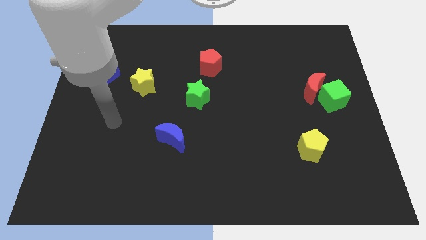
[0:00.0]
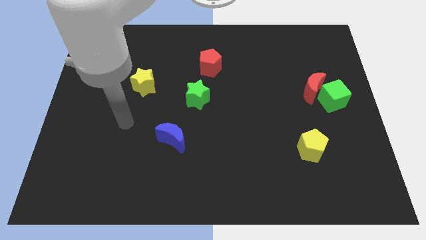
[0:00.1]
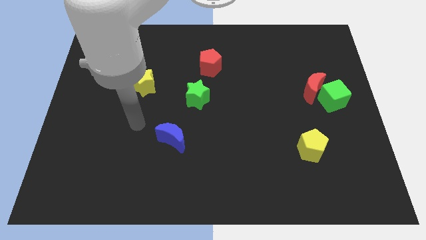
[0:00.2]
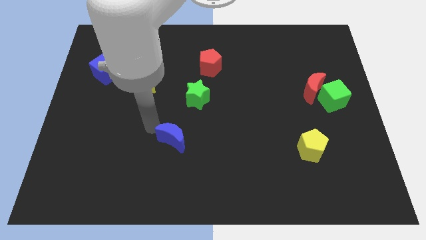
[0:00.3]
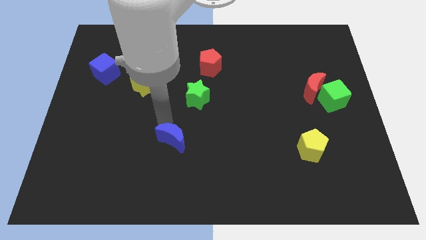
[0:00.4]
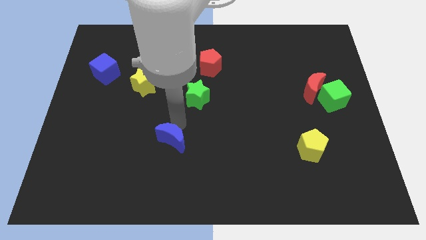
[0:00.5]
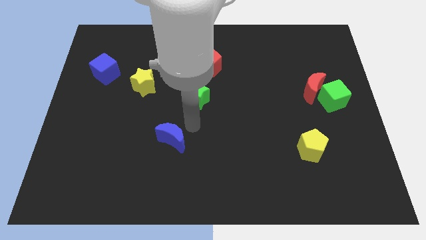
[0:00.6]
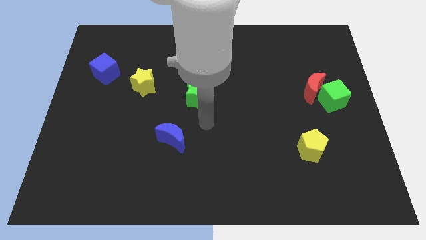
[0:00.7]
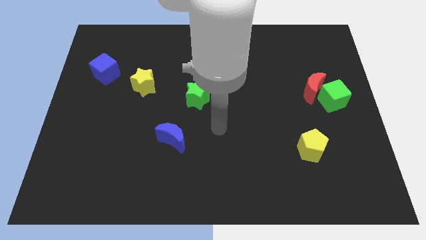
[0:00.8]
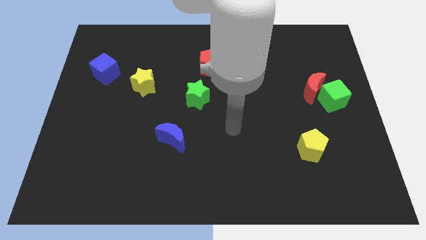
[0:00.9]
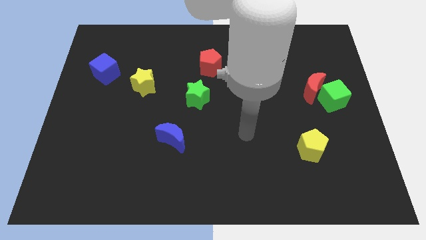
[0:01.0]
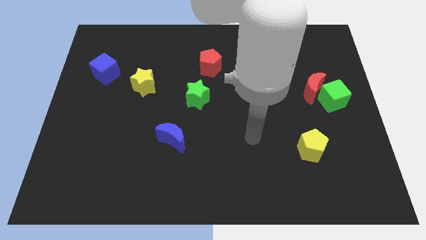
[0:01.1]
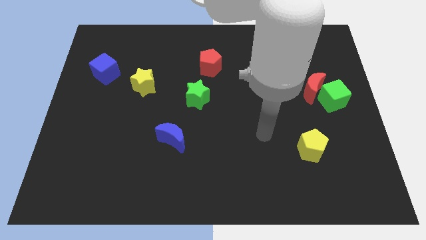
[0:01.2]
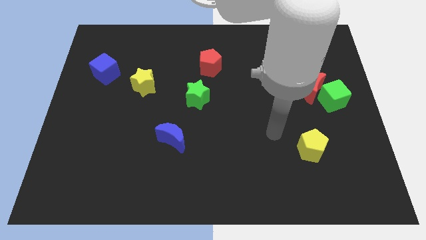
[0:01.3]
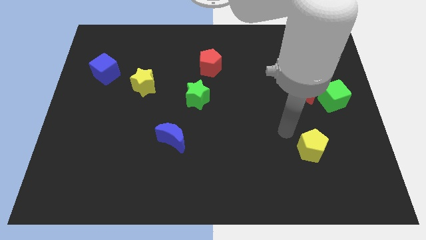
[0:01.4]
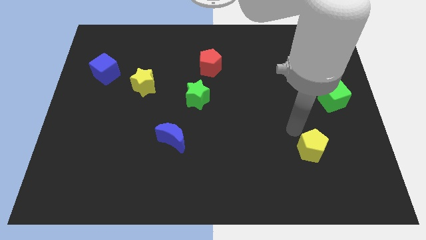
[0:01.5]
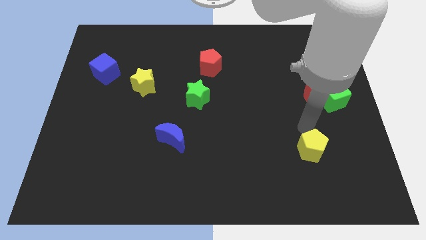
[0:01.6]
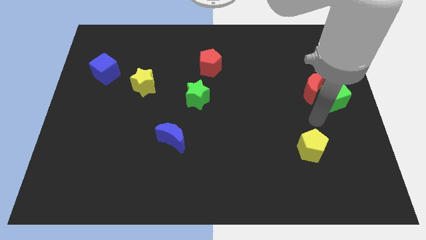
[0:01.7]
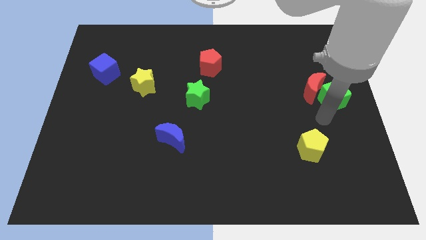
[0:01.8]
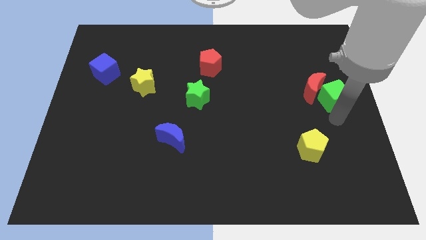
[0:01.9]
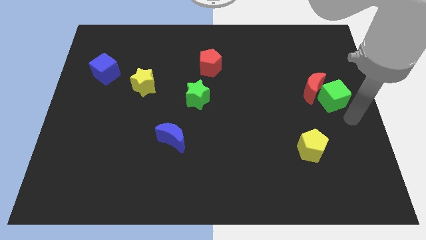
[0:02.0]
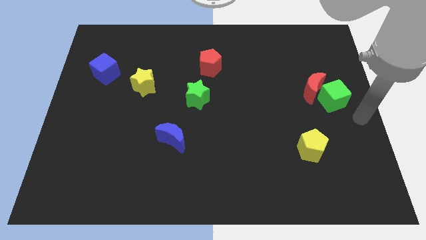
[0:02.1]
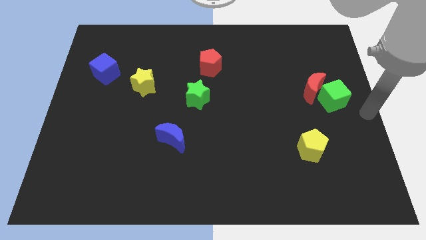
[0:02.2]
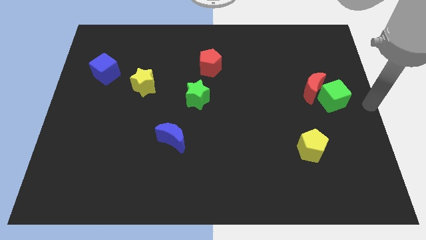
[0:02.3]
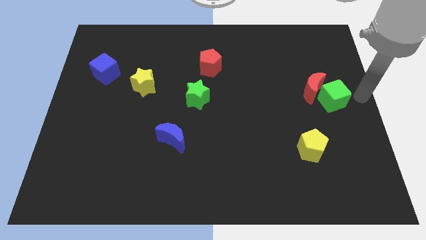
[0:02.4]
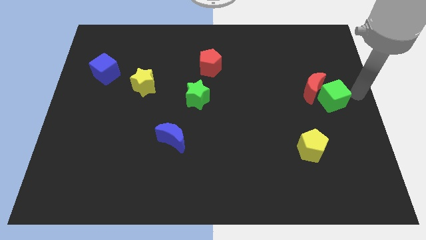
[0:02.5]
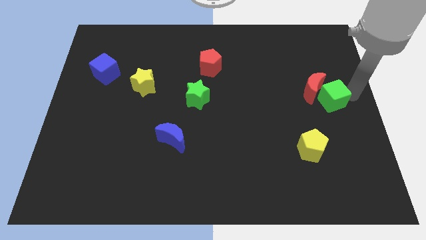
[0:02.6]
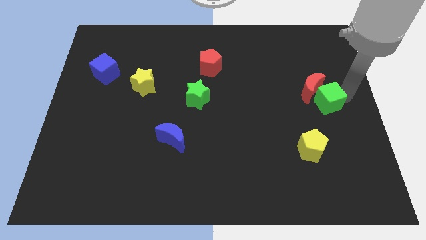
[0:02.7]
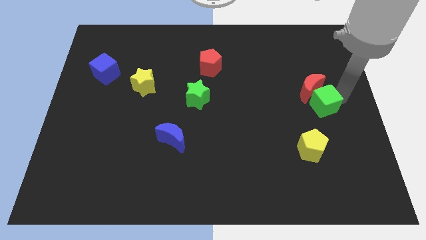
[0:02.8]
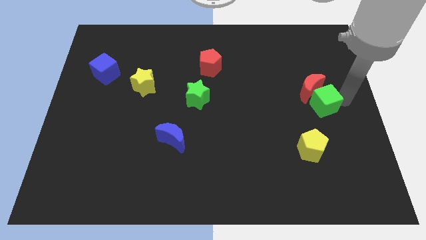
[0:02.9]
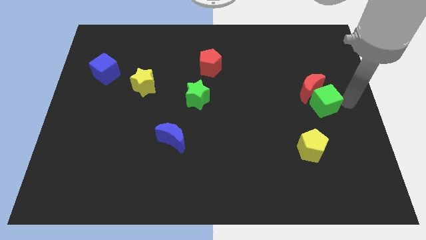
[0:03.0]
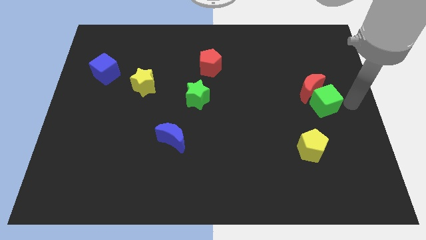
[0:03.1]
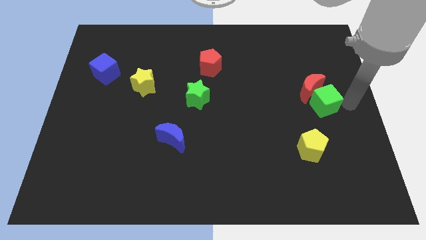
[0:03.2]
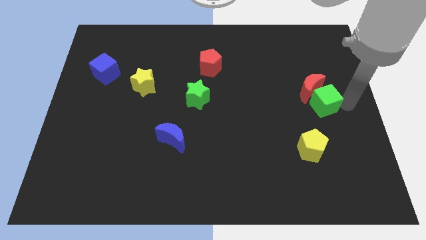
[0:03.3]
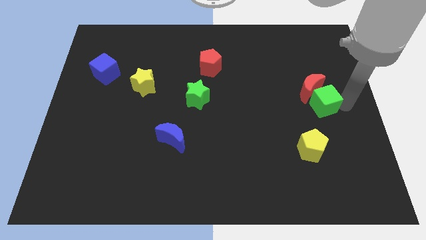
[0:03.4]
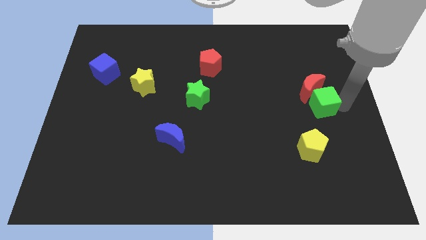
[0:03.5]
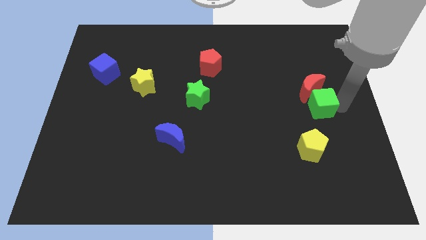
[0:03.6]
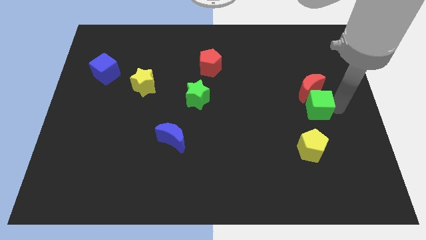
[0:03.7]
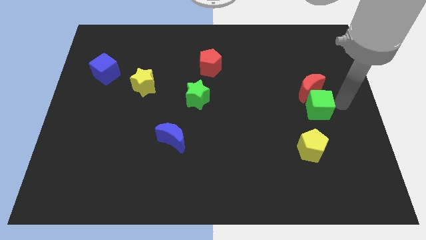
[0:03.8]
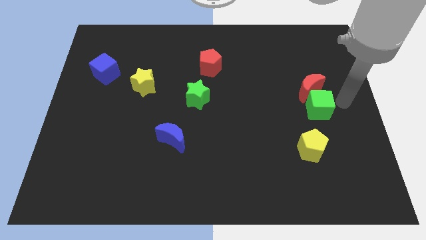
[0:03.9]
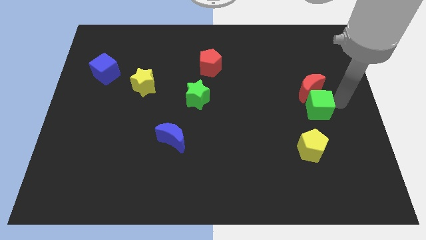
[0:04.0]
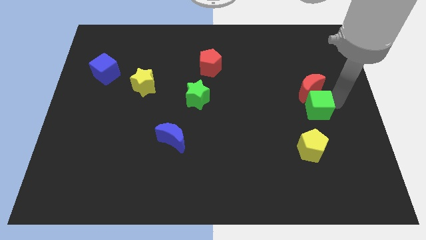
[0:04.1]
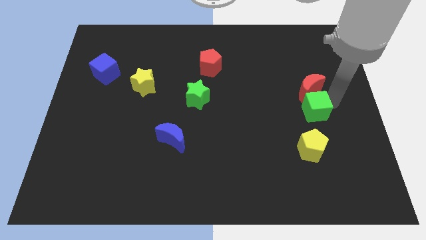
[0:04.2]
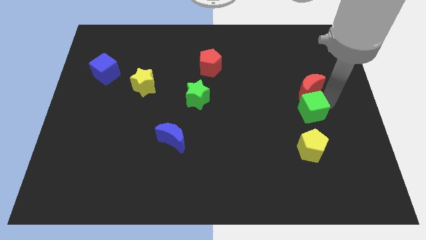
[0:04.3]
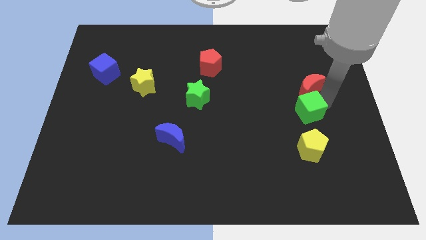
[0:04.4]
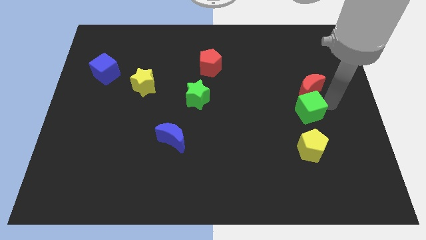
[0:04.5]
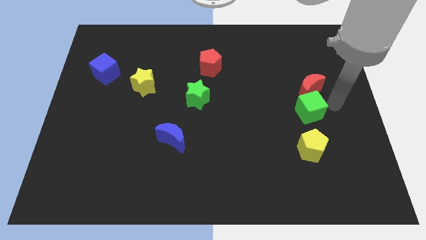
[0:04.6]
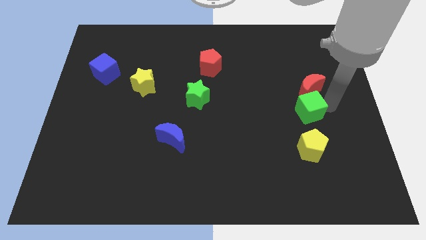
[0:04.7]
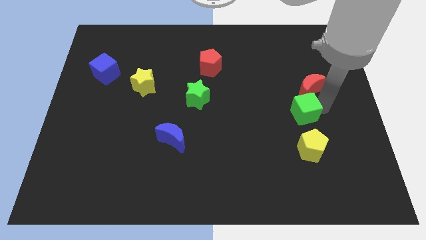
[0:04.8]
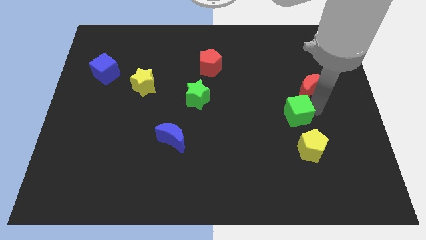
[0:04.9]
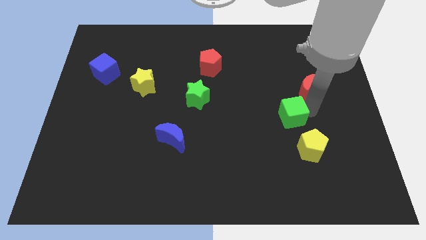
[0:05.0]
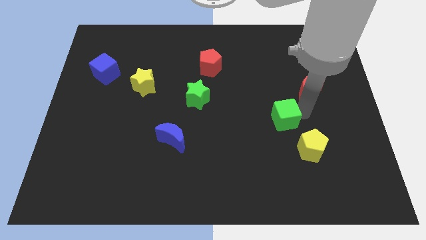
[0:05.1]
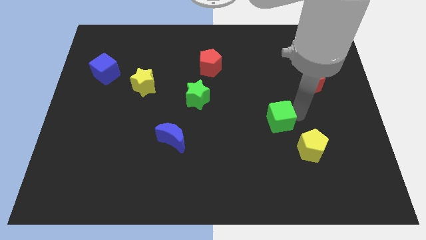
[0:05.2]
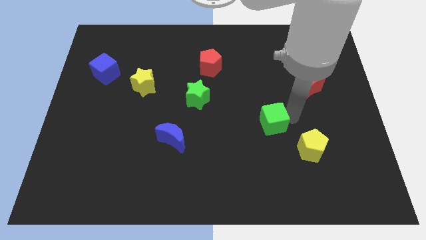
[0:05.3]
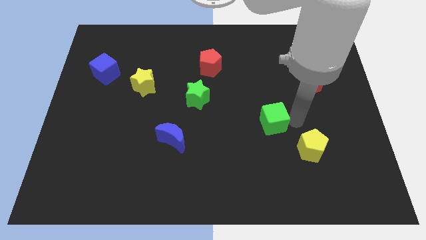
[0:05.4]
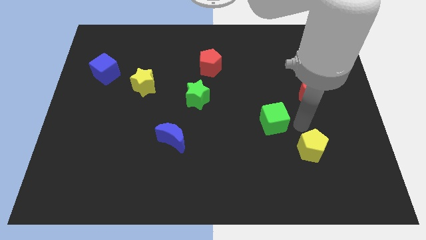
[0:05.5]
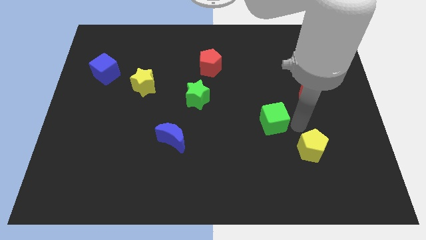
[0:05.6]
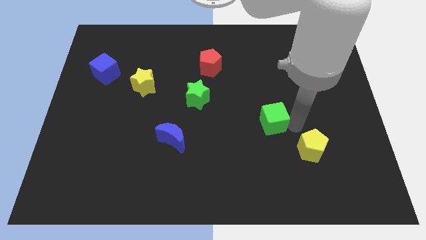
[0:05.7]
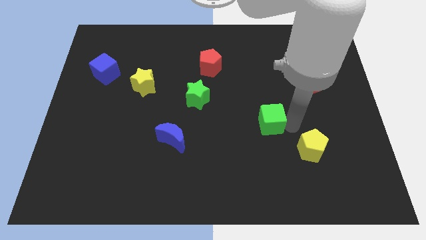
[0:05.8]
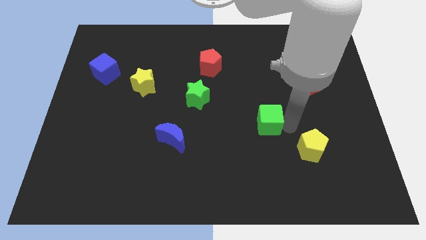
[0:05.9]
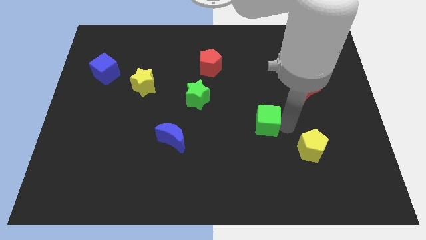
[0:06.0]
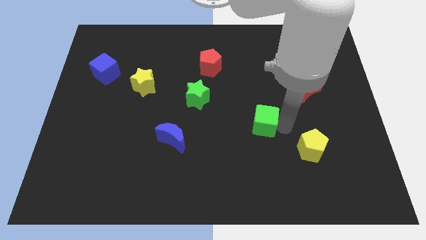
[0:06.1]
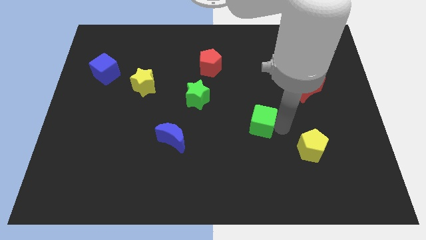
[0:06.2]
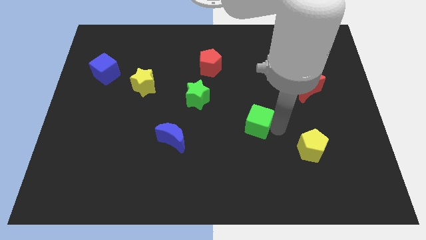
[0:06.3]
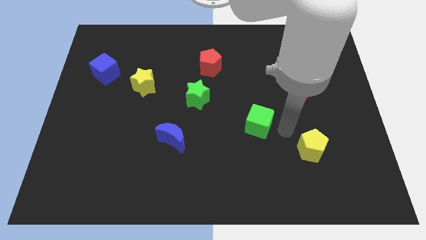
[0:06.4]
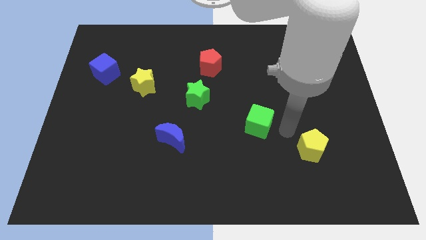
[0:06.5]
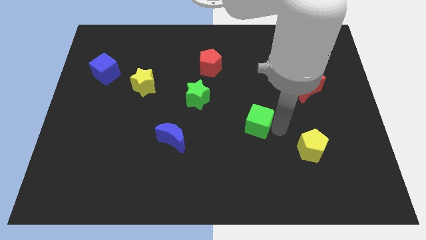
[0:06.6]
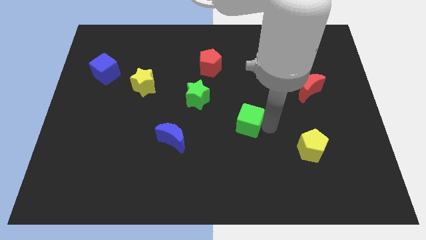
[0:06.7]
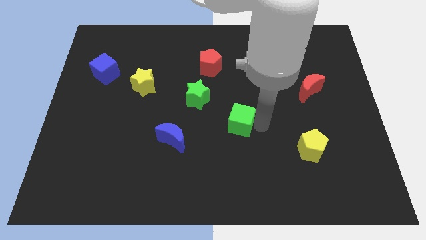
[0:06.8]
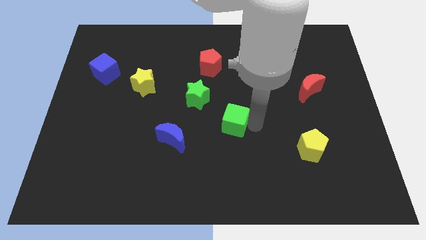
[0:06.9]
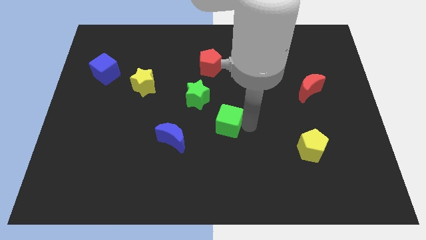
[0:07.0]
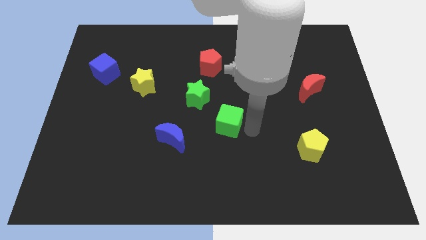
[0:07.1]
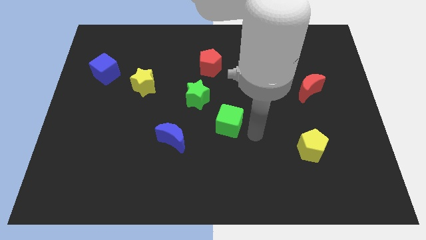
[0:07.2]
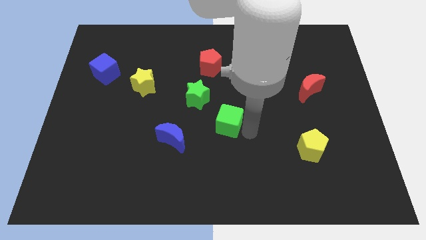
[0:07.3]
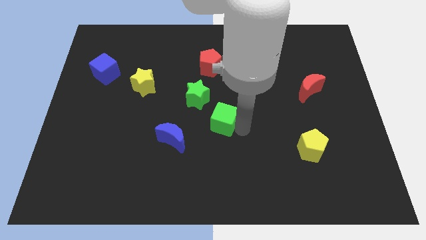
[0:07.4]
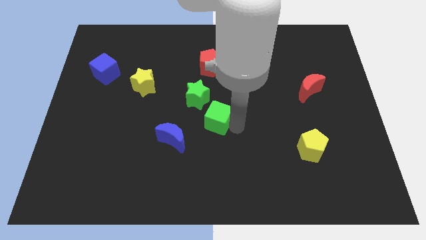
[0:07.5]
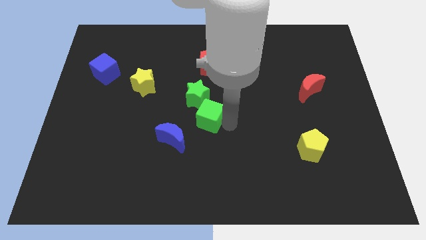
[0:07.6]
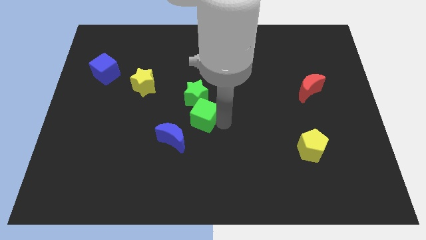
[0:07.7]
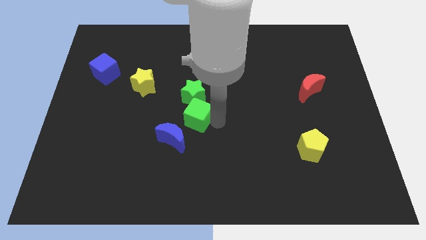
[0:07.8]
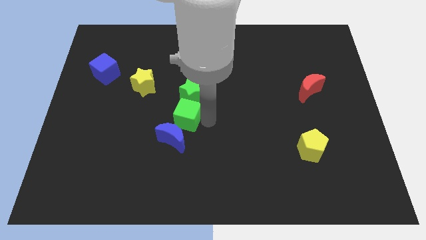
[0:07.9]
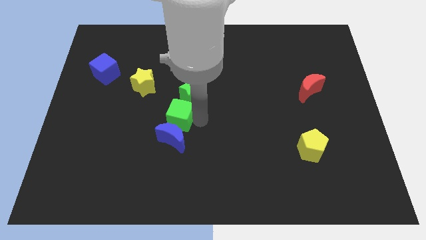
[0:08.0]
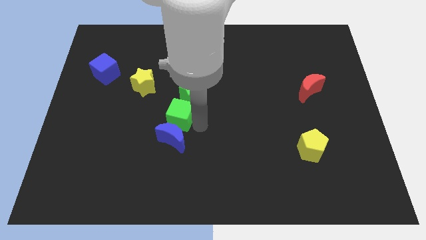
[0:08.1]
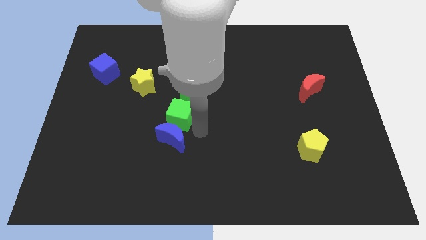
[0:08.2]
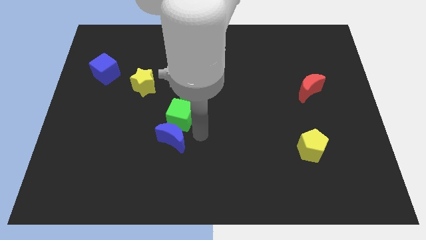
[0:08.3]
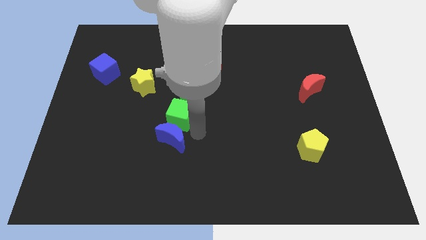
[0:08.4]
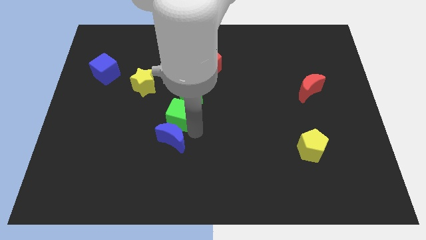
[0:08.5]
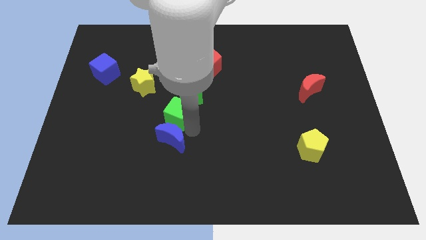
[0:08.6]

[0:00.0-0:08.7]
slide the green cube to the bottom right of the yellow star
